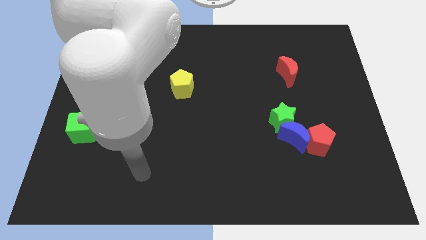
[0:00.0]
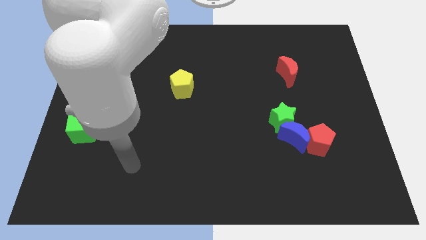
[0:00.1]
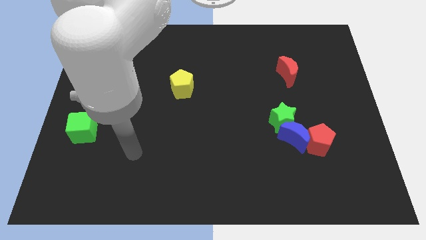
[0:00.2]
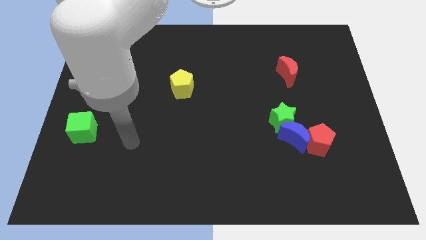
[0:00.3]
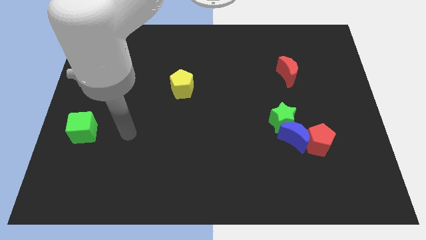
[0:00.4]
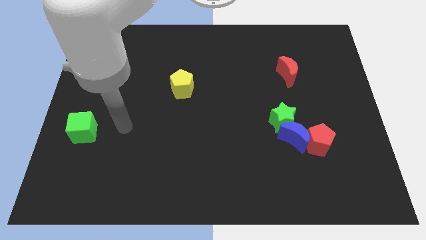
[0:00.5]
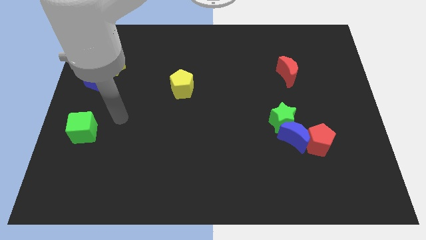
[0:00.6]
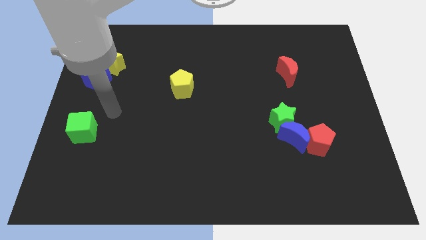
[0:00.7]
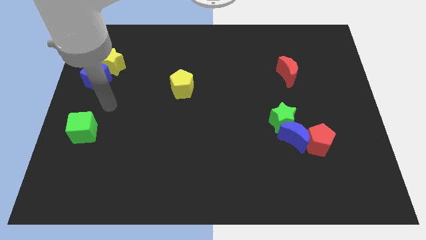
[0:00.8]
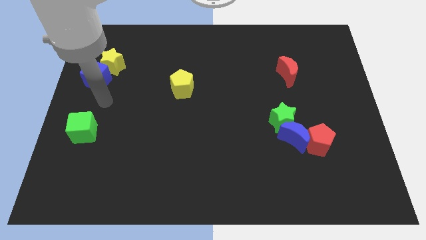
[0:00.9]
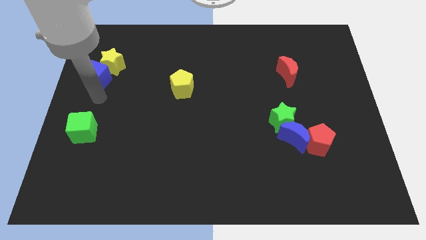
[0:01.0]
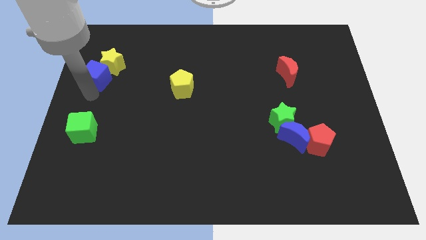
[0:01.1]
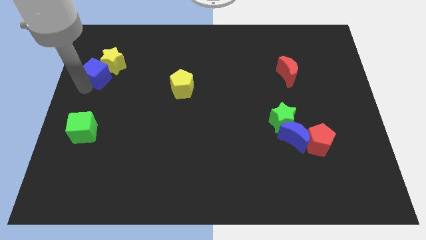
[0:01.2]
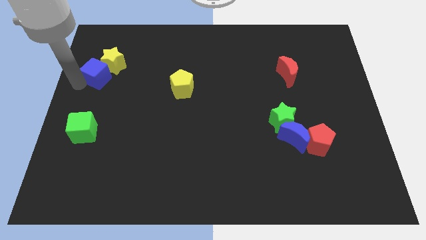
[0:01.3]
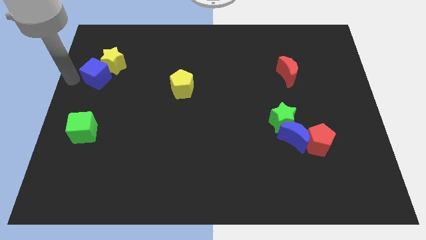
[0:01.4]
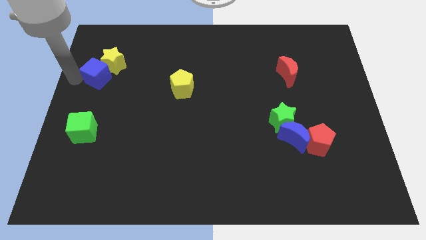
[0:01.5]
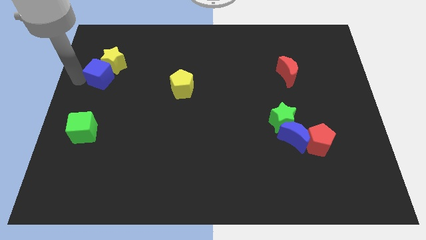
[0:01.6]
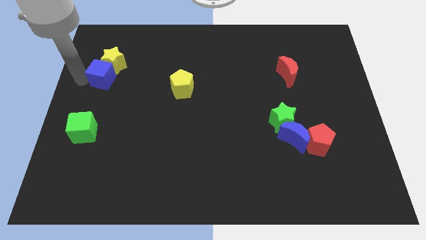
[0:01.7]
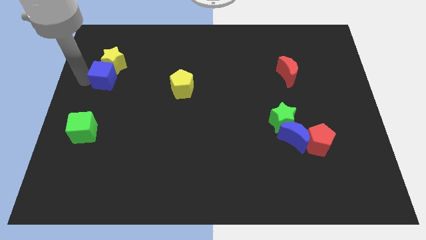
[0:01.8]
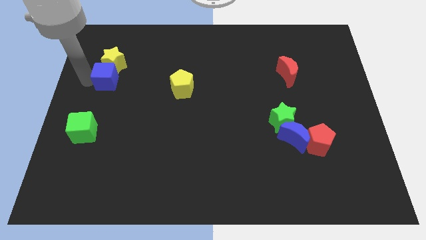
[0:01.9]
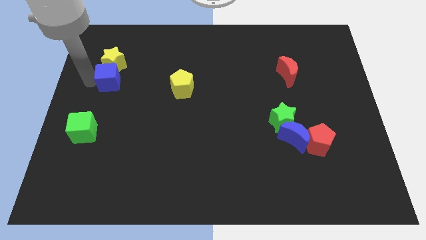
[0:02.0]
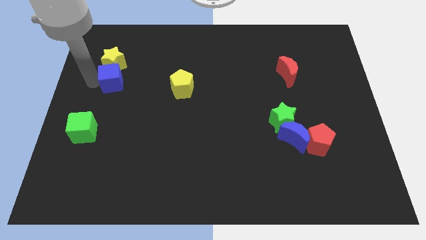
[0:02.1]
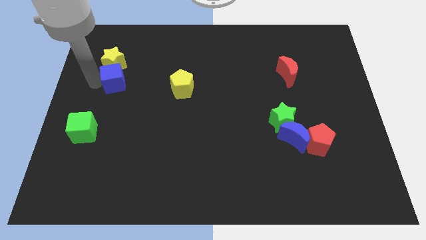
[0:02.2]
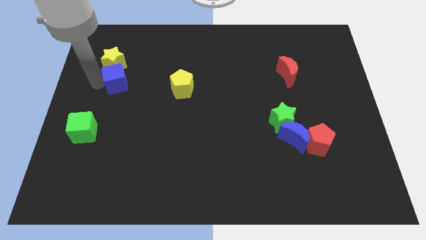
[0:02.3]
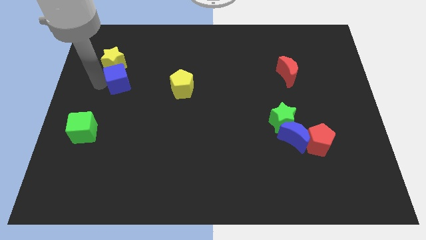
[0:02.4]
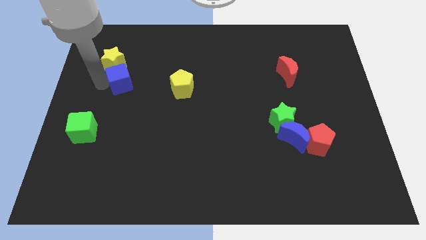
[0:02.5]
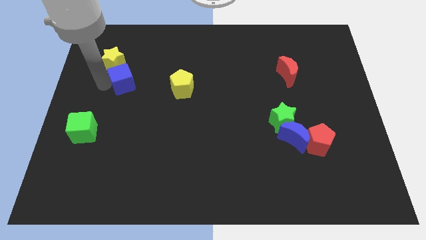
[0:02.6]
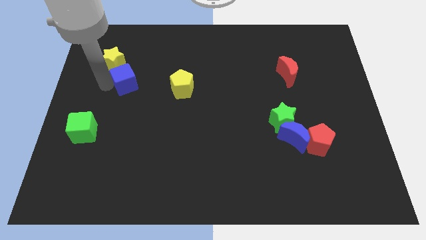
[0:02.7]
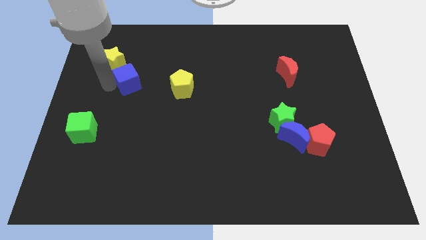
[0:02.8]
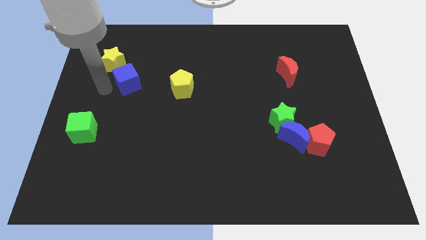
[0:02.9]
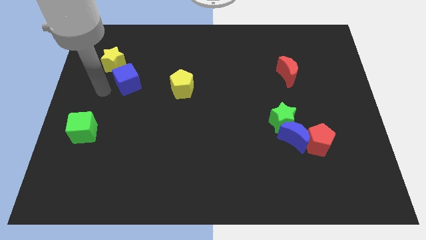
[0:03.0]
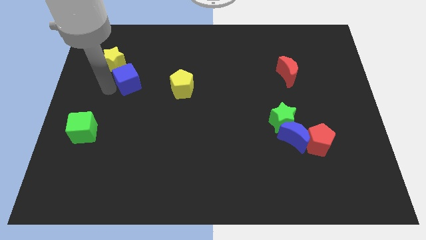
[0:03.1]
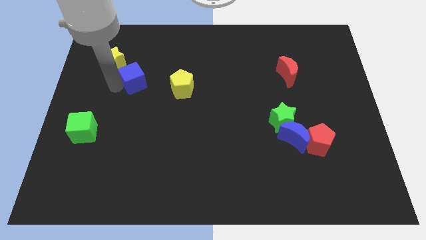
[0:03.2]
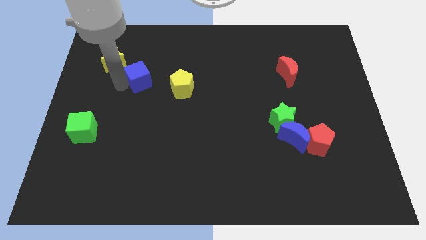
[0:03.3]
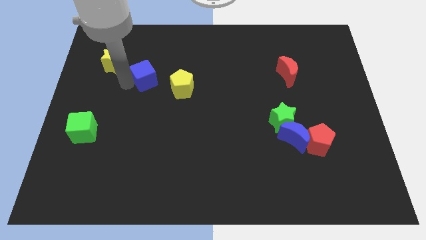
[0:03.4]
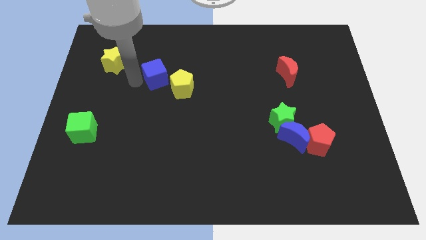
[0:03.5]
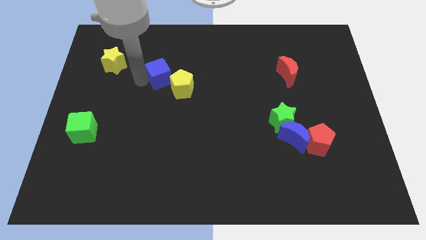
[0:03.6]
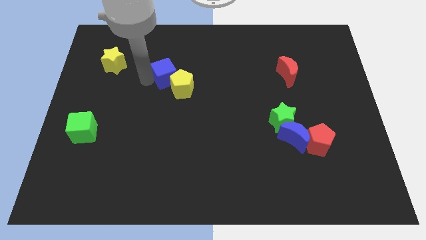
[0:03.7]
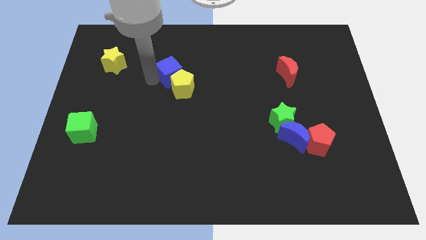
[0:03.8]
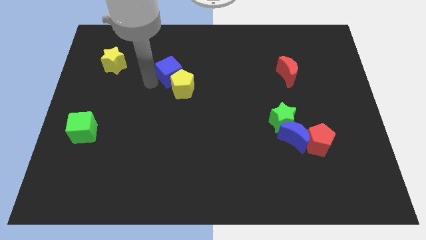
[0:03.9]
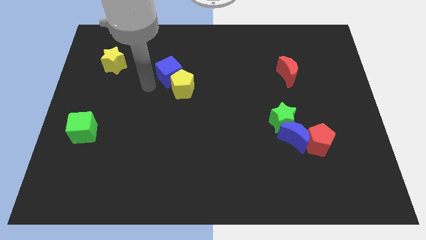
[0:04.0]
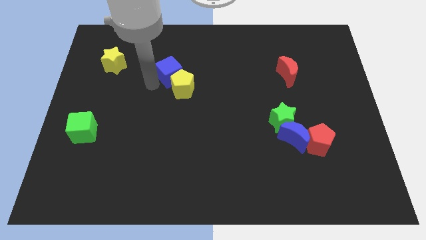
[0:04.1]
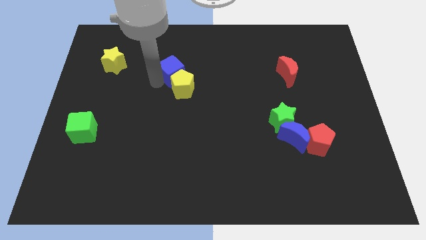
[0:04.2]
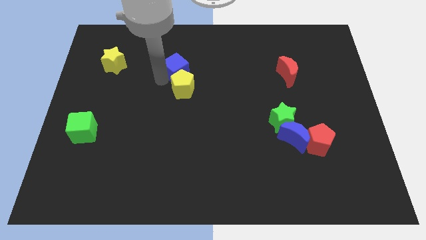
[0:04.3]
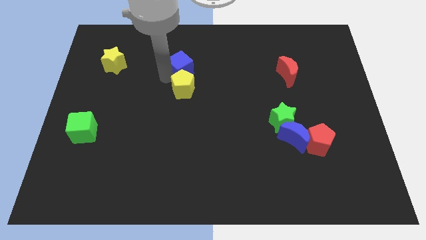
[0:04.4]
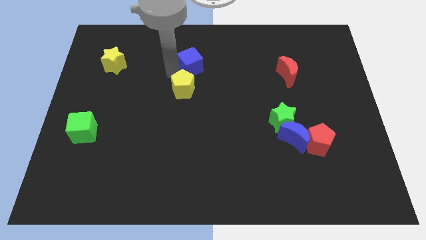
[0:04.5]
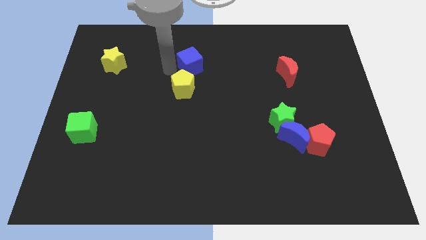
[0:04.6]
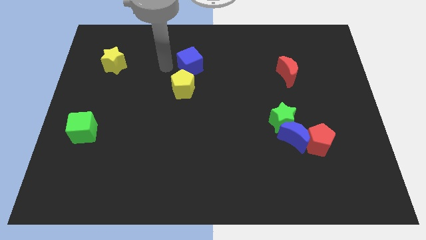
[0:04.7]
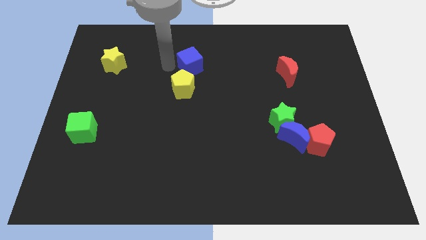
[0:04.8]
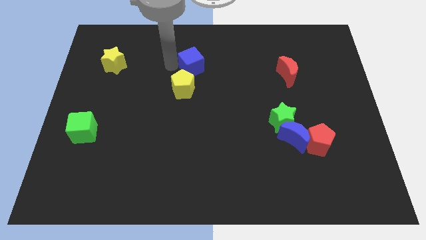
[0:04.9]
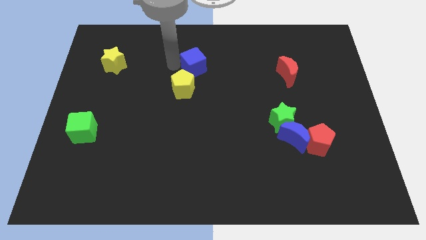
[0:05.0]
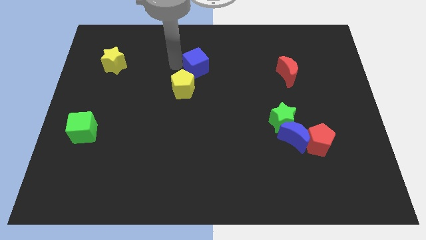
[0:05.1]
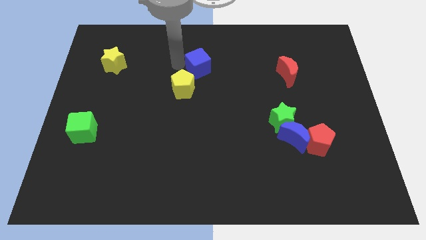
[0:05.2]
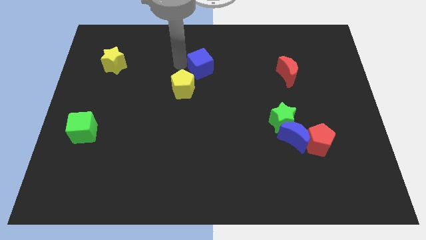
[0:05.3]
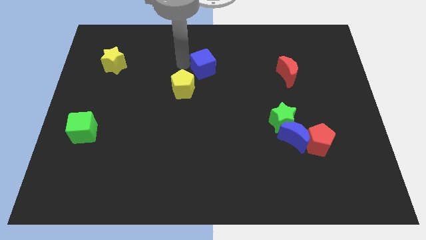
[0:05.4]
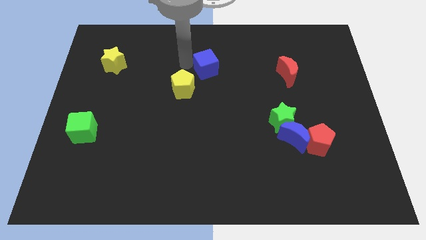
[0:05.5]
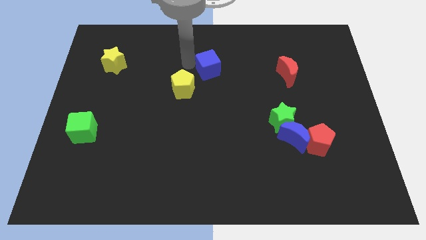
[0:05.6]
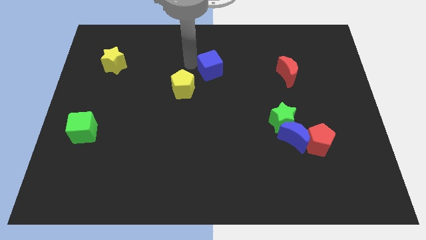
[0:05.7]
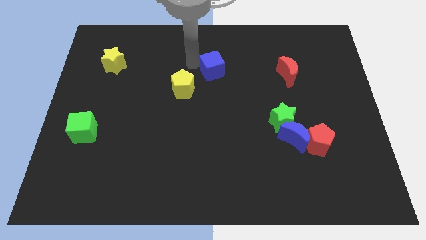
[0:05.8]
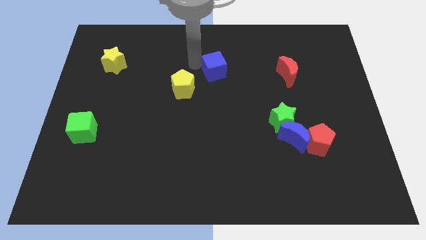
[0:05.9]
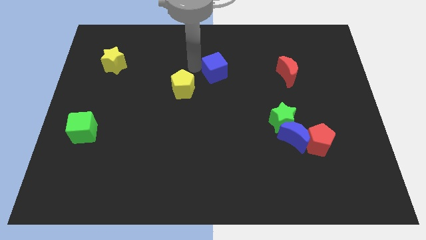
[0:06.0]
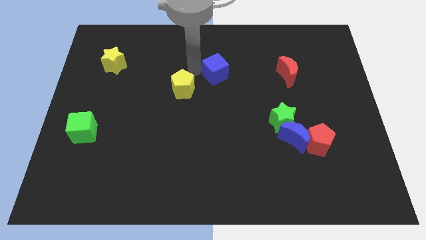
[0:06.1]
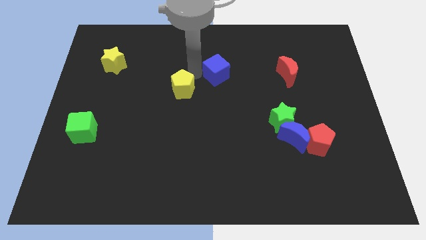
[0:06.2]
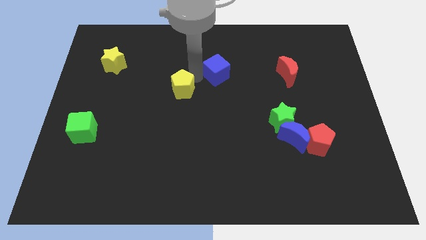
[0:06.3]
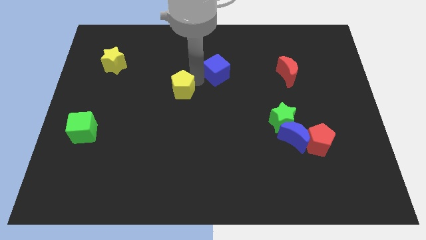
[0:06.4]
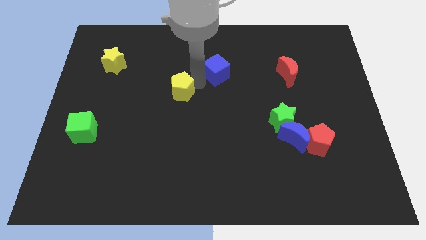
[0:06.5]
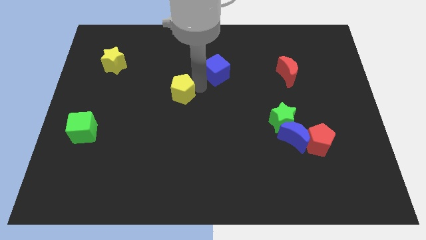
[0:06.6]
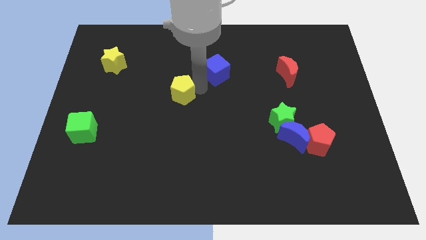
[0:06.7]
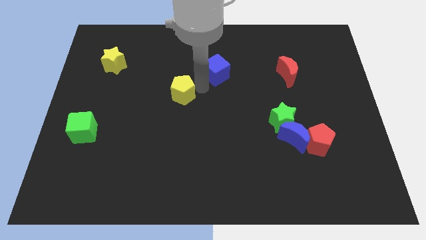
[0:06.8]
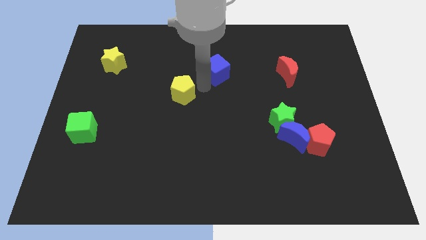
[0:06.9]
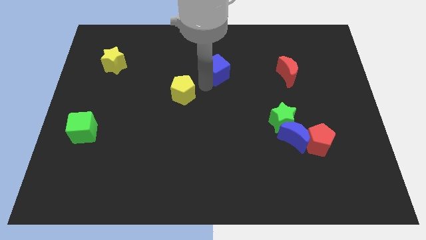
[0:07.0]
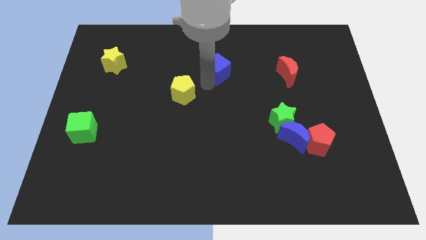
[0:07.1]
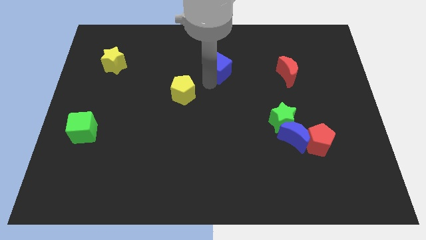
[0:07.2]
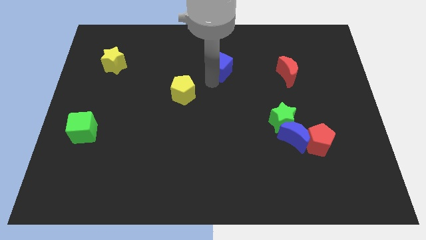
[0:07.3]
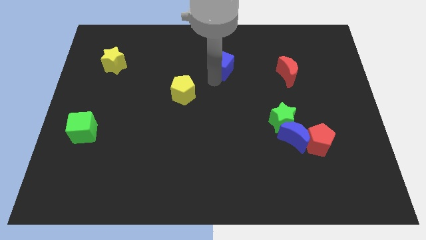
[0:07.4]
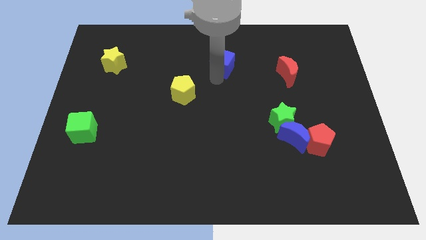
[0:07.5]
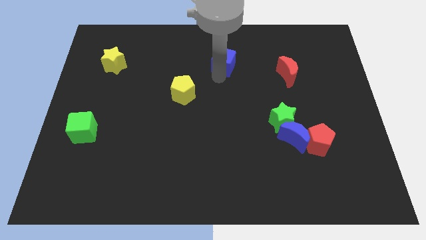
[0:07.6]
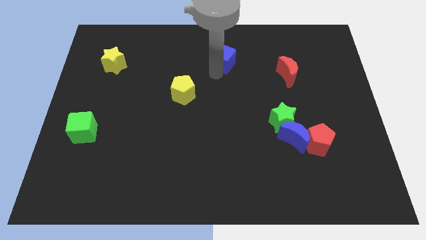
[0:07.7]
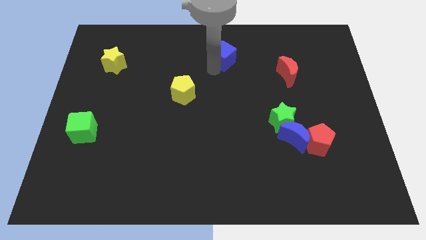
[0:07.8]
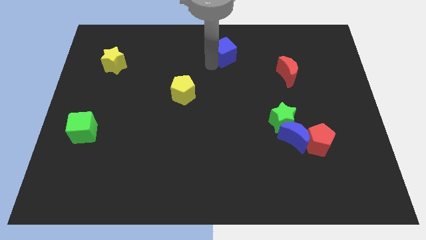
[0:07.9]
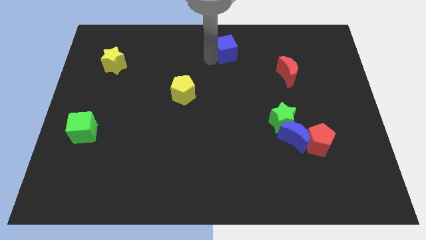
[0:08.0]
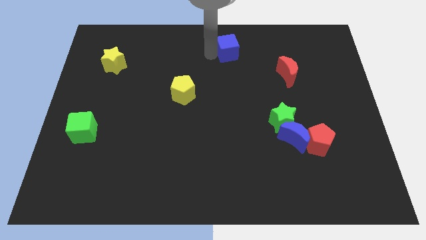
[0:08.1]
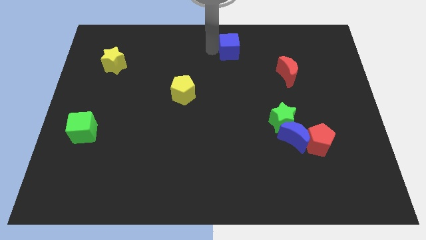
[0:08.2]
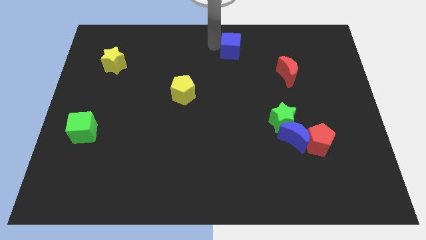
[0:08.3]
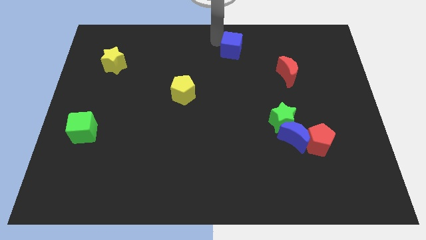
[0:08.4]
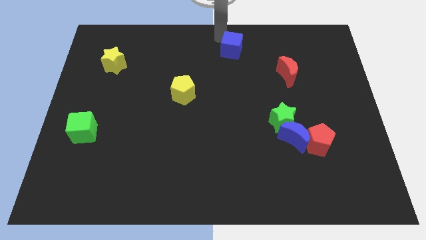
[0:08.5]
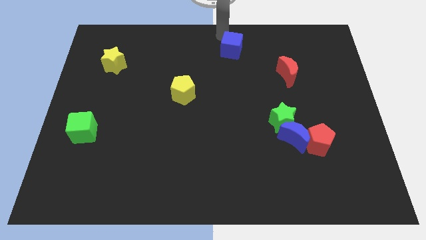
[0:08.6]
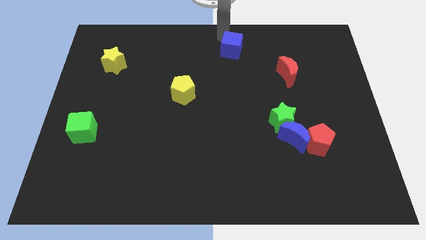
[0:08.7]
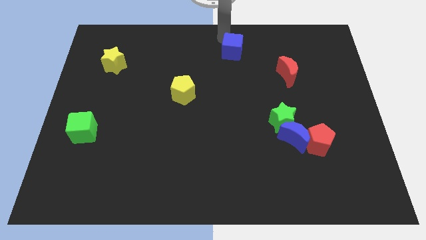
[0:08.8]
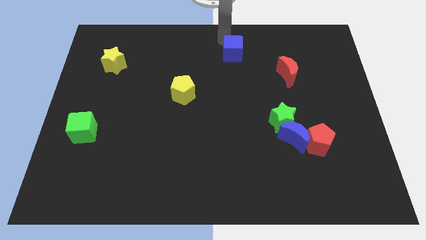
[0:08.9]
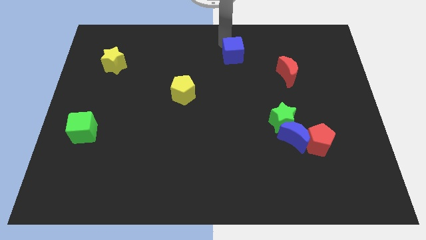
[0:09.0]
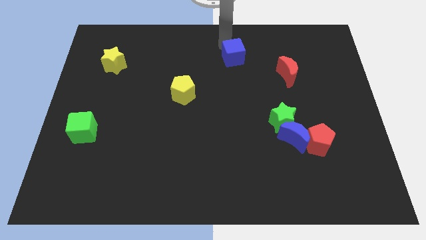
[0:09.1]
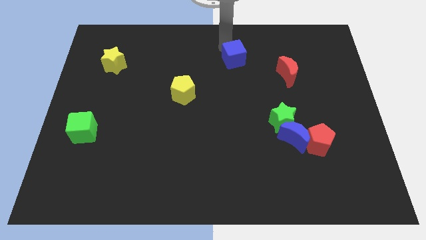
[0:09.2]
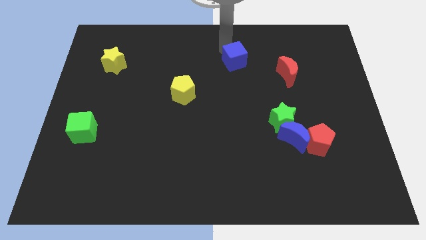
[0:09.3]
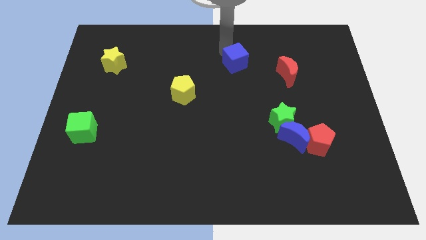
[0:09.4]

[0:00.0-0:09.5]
push the blue cube left of the red moon
